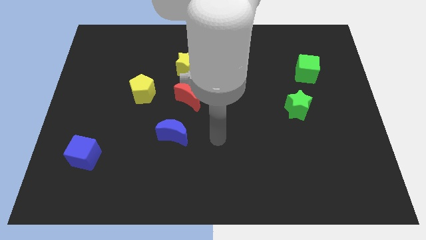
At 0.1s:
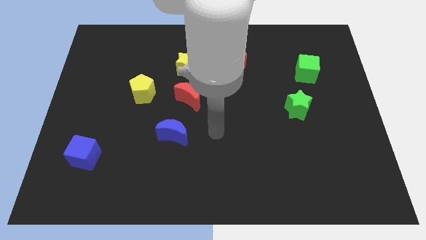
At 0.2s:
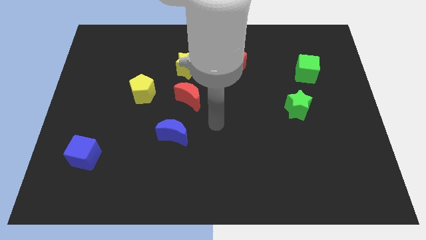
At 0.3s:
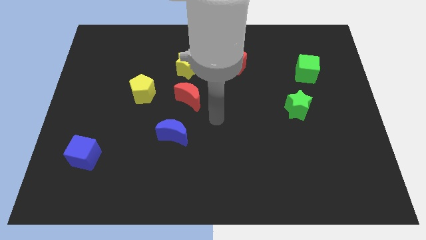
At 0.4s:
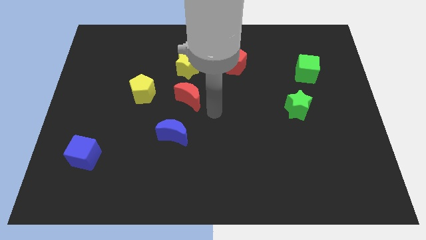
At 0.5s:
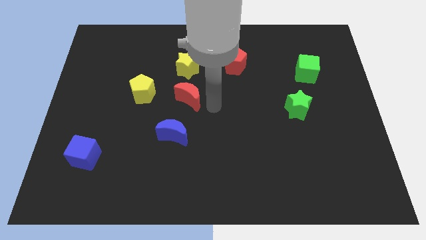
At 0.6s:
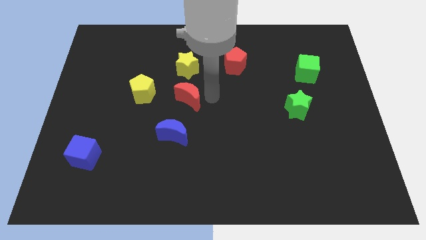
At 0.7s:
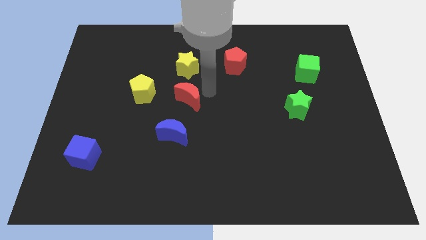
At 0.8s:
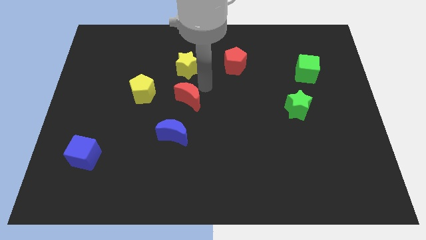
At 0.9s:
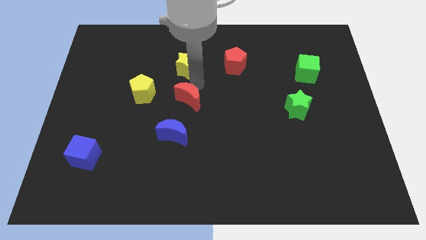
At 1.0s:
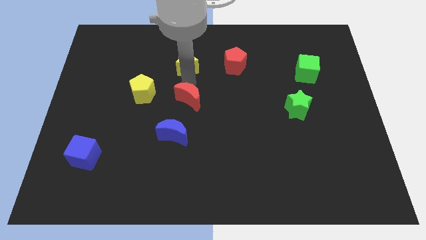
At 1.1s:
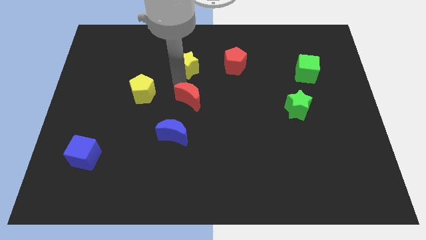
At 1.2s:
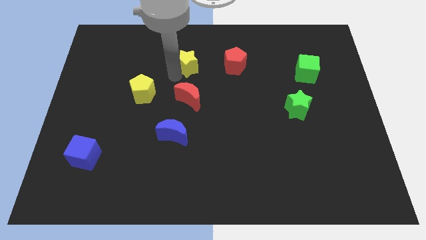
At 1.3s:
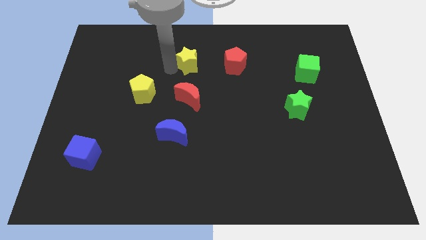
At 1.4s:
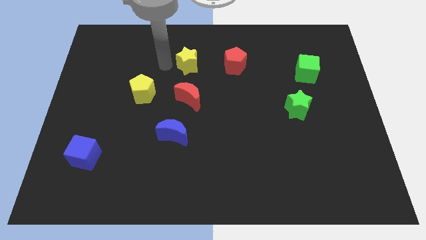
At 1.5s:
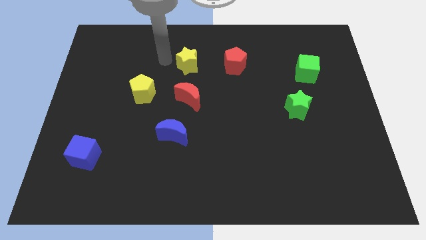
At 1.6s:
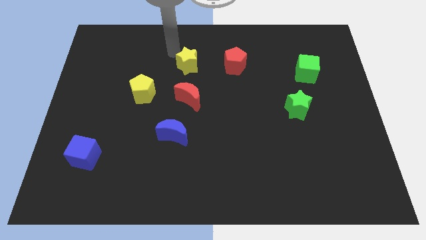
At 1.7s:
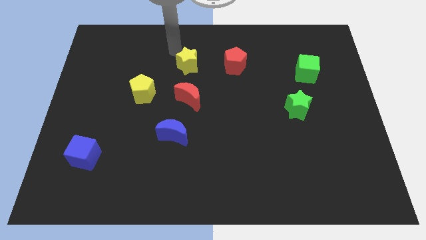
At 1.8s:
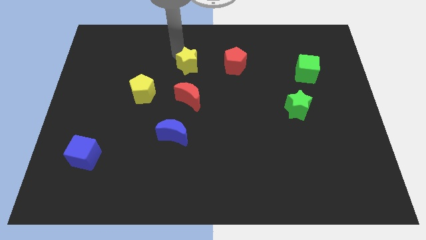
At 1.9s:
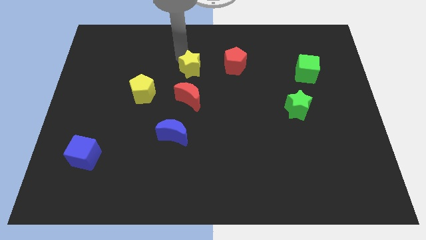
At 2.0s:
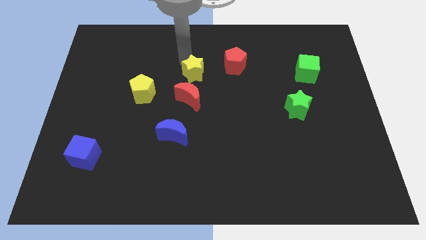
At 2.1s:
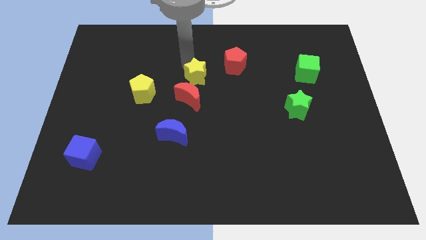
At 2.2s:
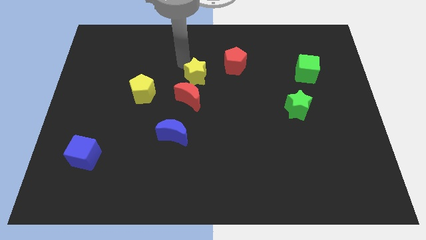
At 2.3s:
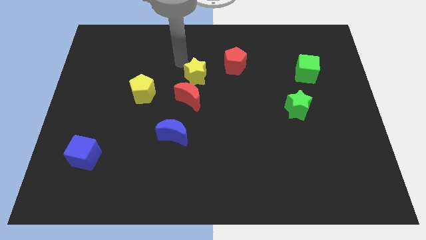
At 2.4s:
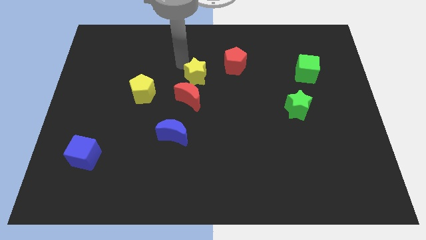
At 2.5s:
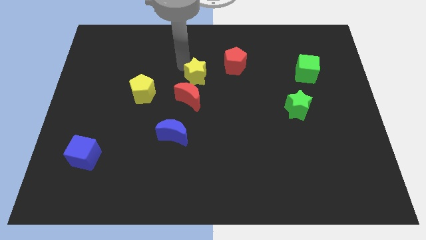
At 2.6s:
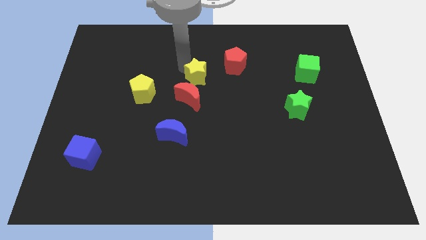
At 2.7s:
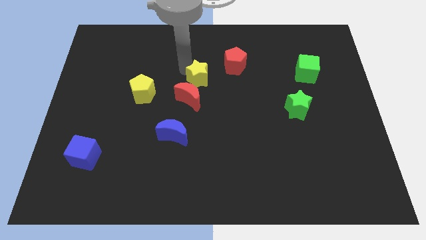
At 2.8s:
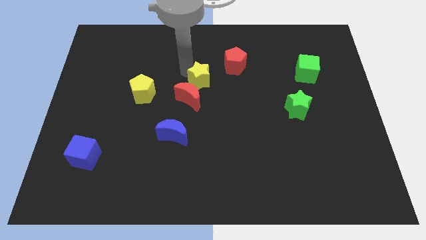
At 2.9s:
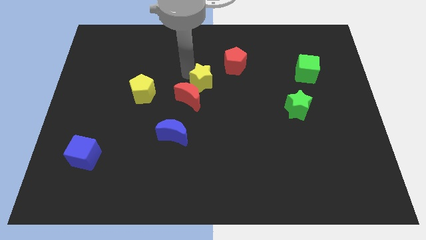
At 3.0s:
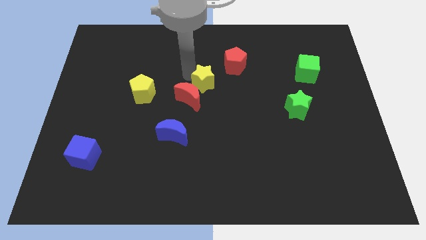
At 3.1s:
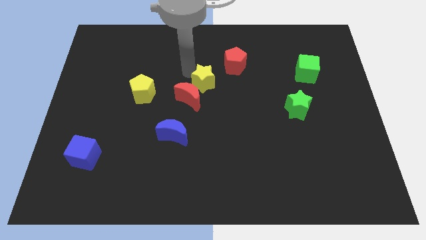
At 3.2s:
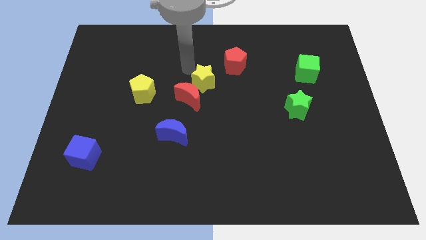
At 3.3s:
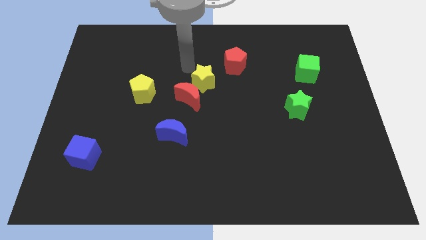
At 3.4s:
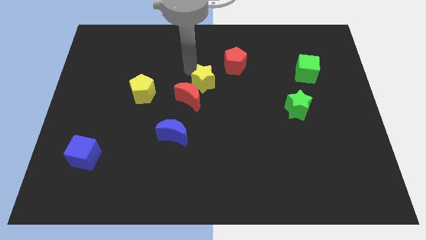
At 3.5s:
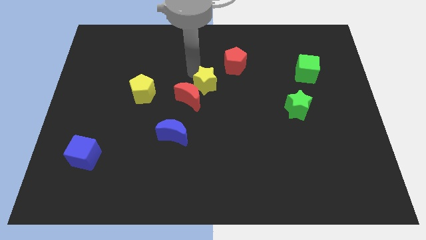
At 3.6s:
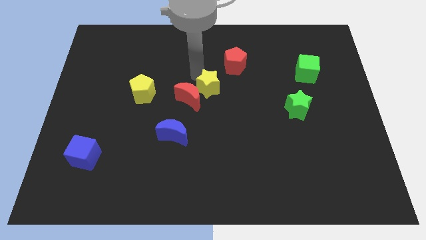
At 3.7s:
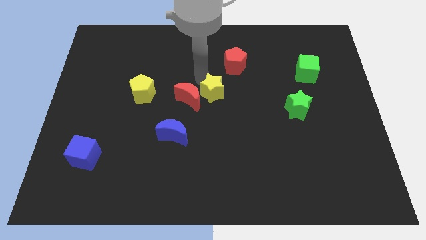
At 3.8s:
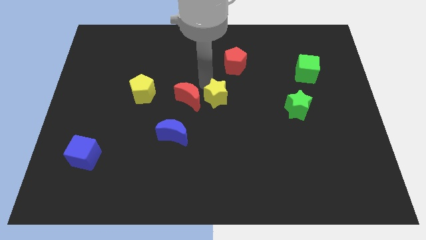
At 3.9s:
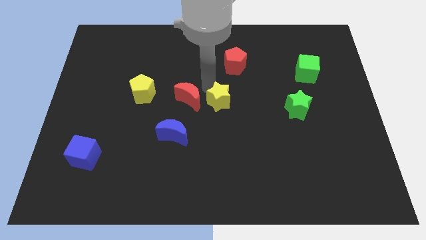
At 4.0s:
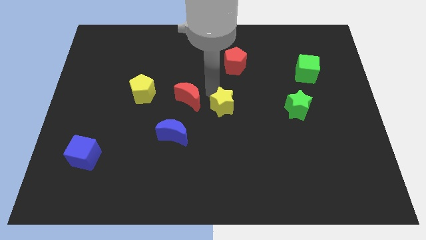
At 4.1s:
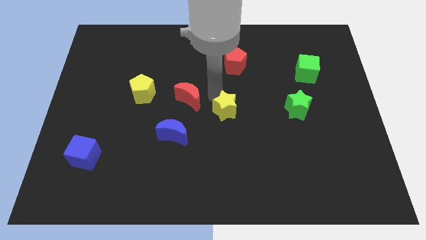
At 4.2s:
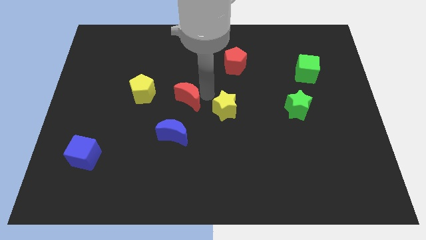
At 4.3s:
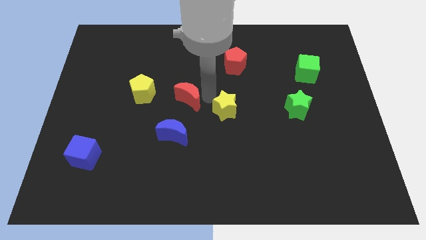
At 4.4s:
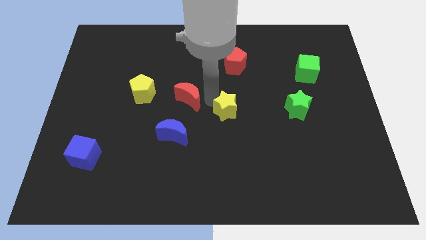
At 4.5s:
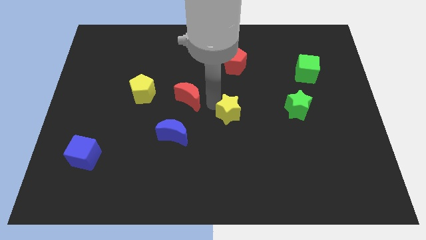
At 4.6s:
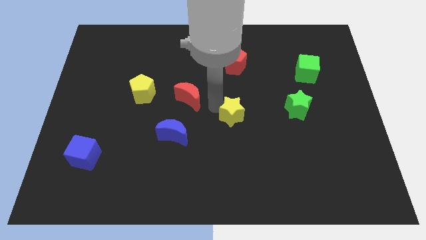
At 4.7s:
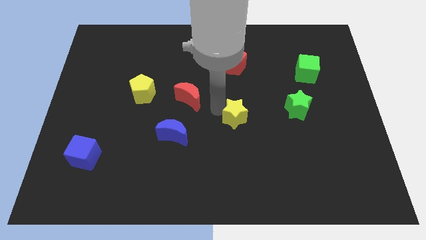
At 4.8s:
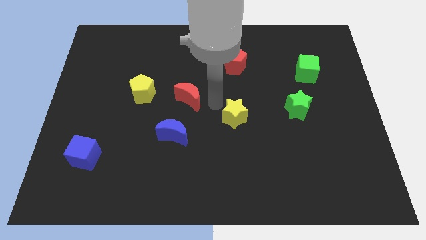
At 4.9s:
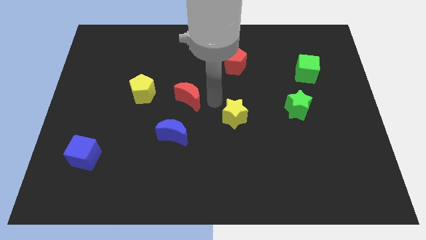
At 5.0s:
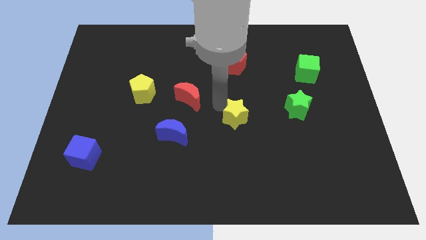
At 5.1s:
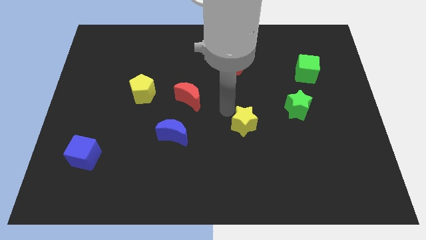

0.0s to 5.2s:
slide the yellow star down and right

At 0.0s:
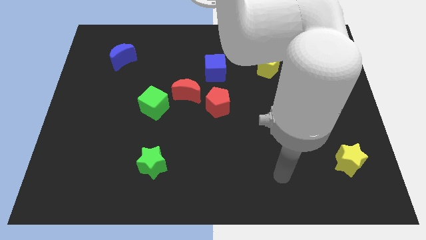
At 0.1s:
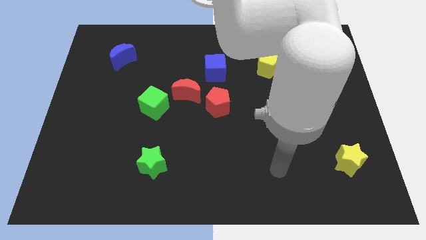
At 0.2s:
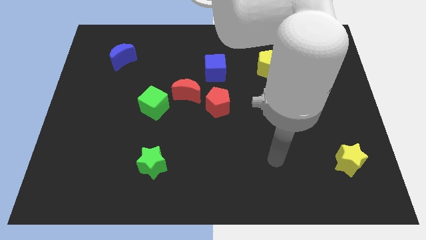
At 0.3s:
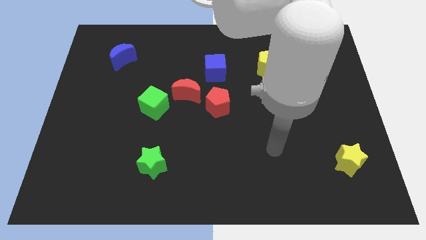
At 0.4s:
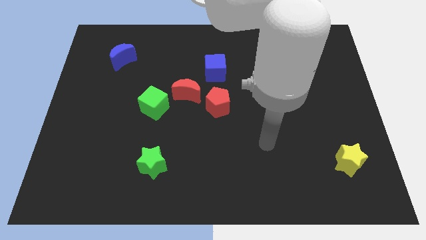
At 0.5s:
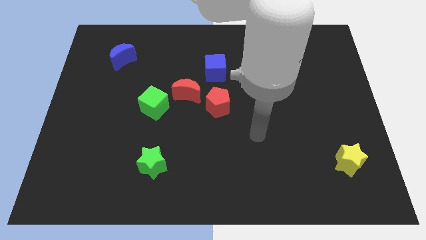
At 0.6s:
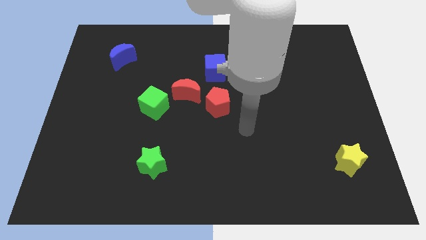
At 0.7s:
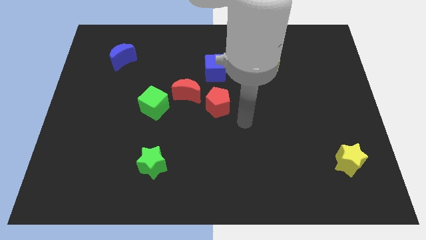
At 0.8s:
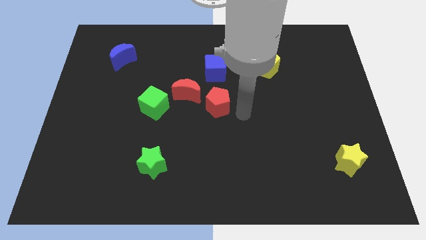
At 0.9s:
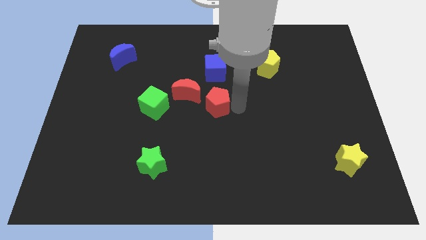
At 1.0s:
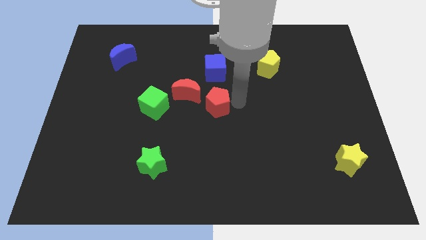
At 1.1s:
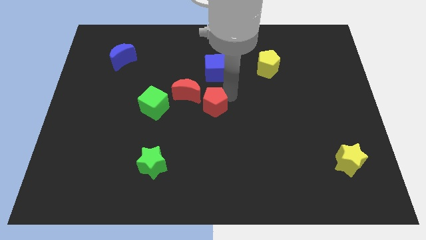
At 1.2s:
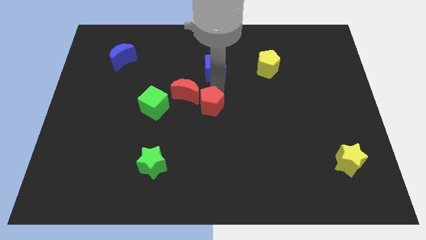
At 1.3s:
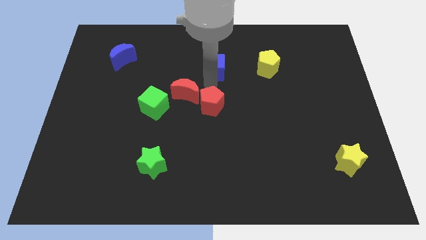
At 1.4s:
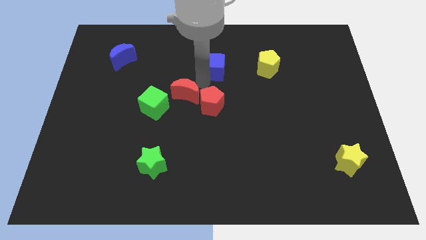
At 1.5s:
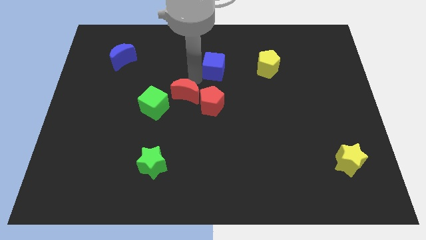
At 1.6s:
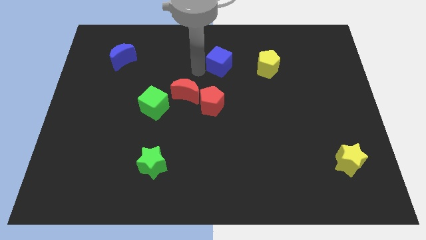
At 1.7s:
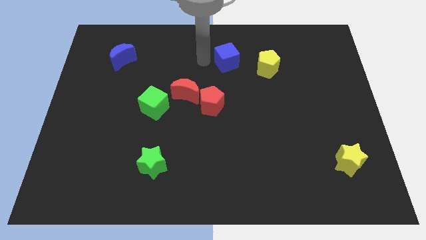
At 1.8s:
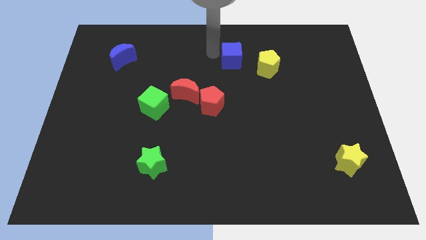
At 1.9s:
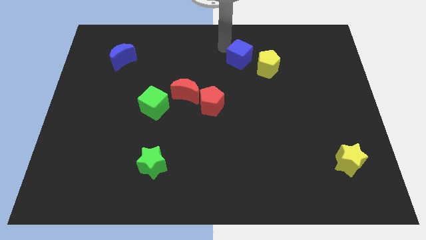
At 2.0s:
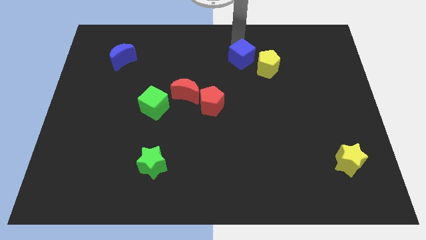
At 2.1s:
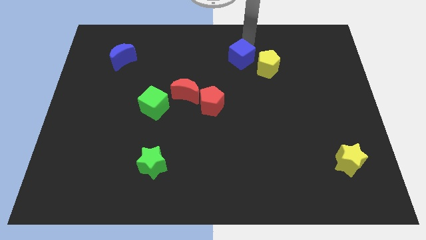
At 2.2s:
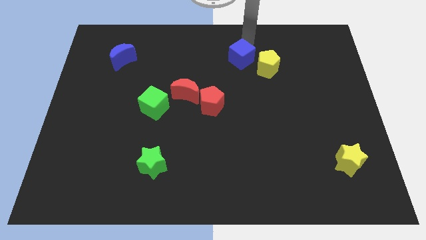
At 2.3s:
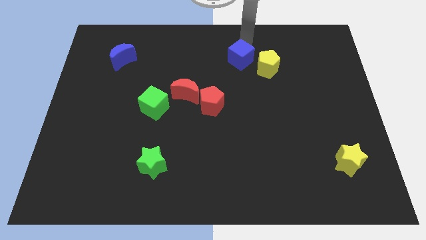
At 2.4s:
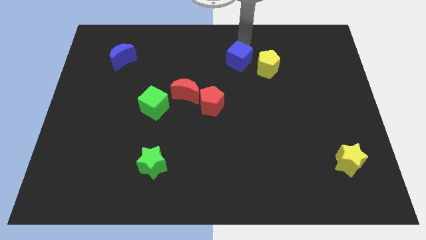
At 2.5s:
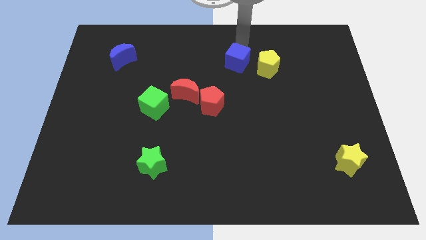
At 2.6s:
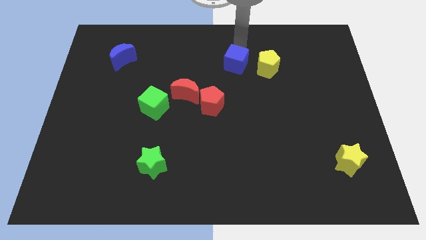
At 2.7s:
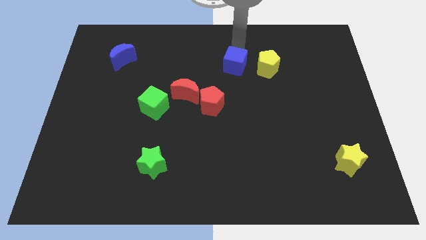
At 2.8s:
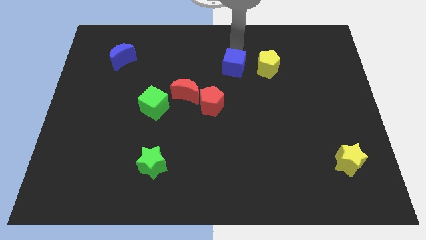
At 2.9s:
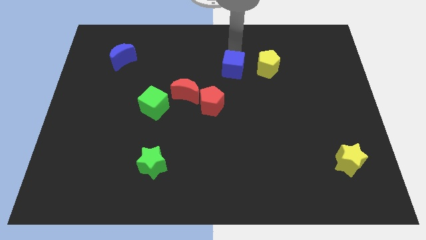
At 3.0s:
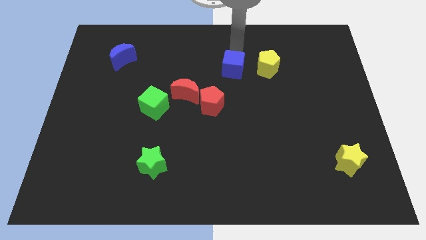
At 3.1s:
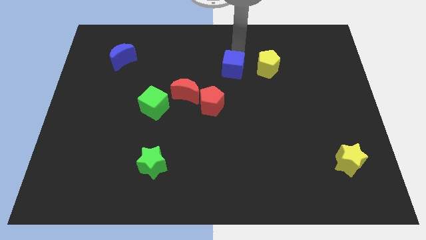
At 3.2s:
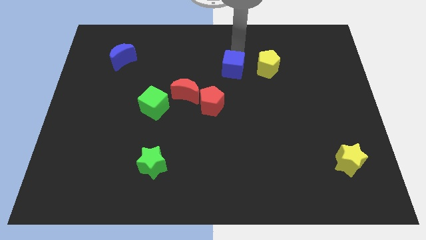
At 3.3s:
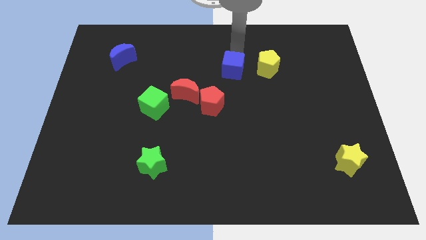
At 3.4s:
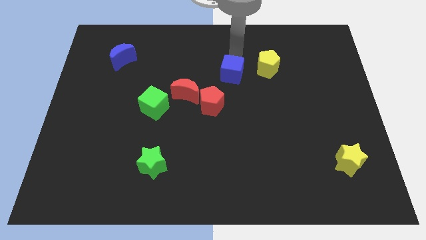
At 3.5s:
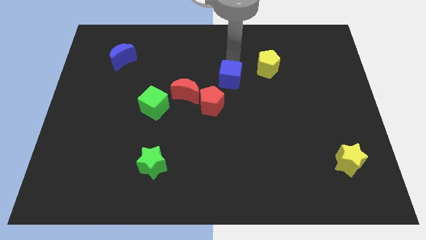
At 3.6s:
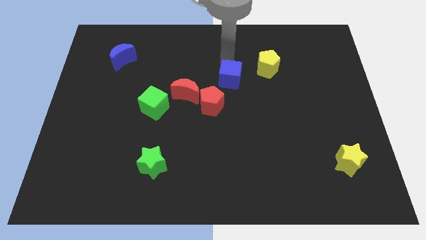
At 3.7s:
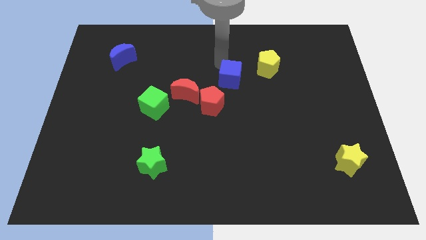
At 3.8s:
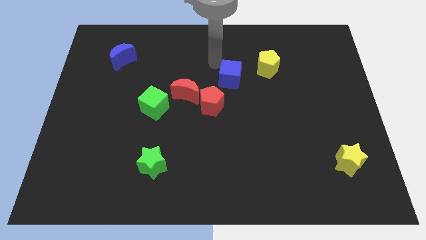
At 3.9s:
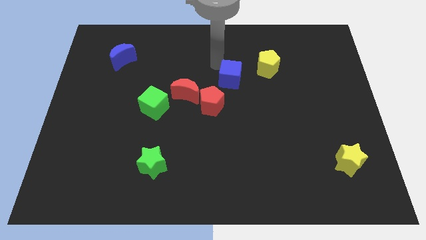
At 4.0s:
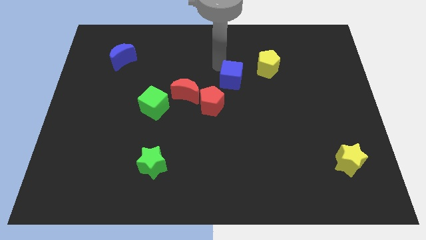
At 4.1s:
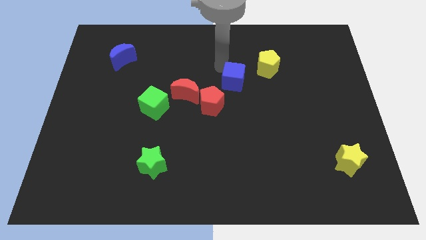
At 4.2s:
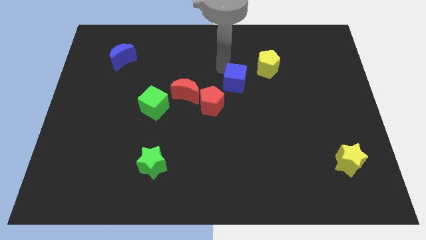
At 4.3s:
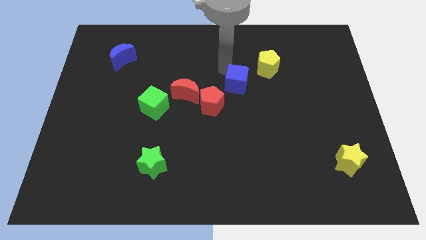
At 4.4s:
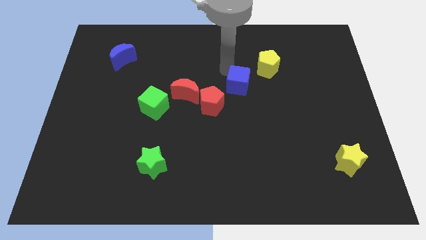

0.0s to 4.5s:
move the blue cube a little bit diagonally down and right
